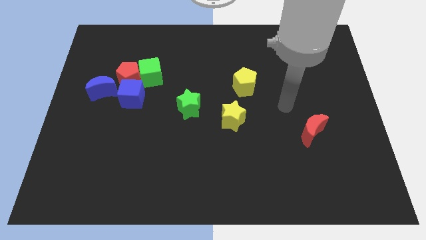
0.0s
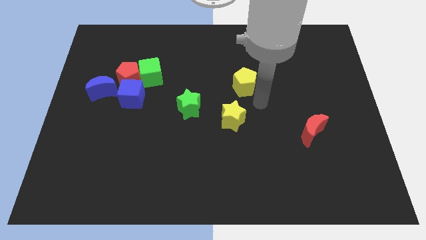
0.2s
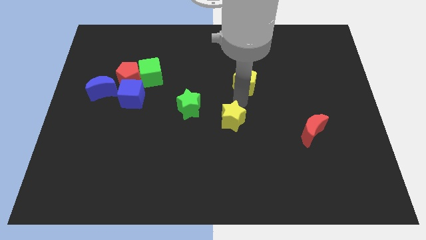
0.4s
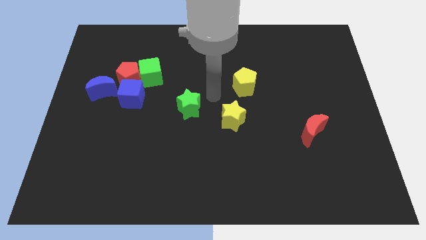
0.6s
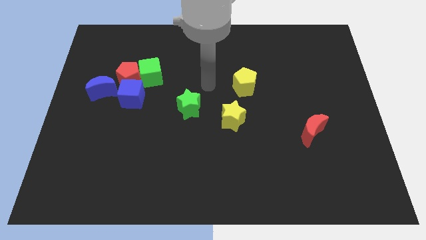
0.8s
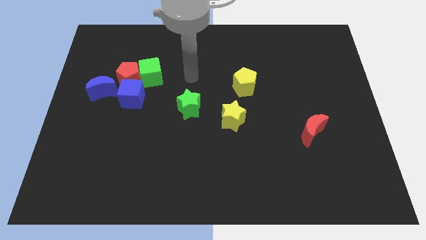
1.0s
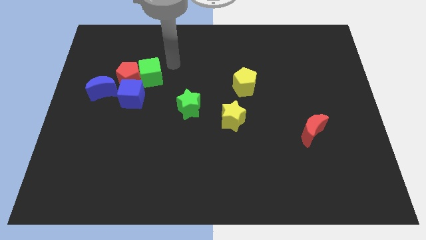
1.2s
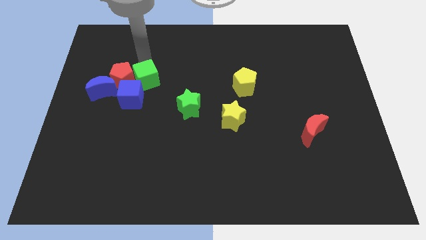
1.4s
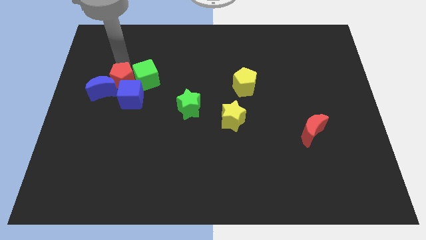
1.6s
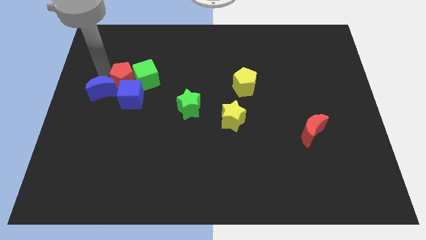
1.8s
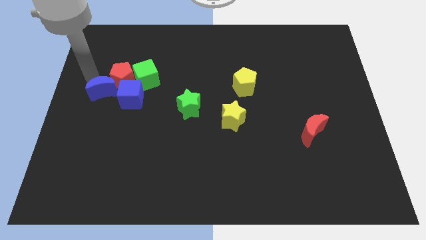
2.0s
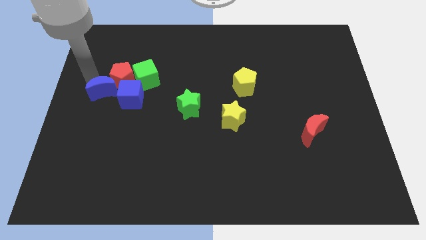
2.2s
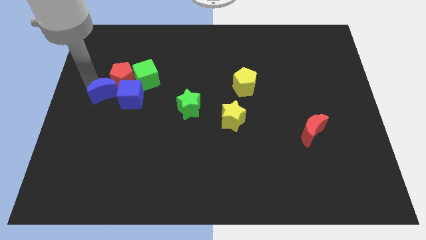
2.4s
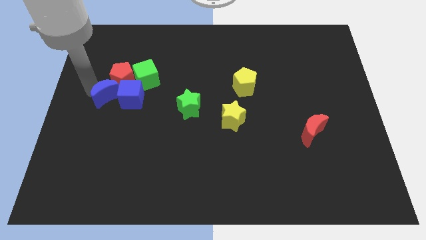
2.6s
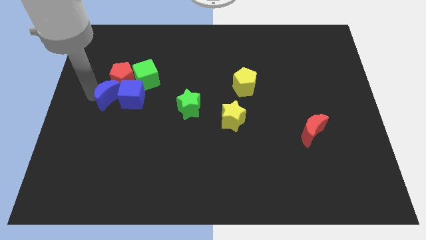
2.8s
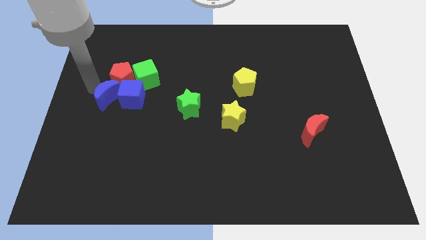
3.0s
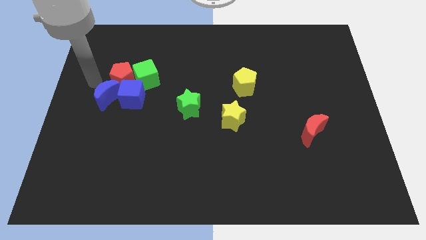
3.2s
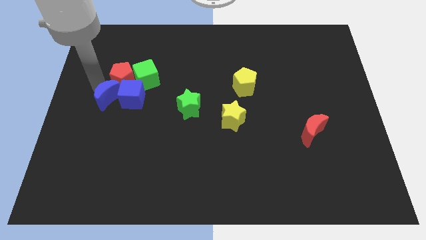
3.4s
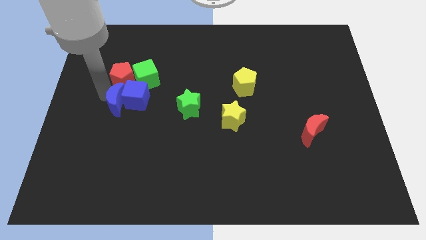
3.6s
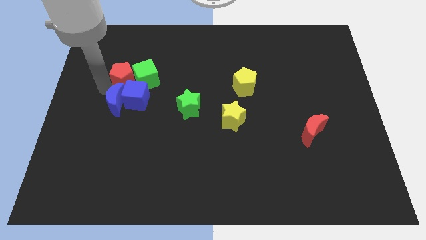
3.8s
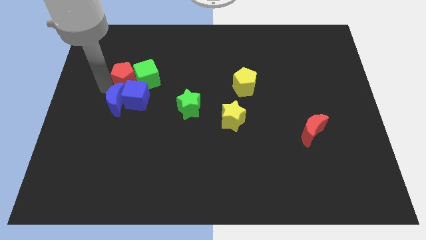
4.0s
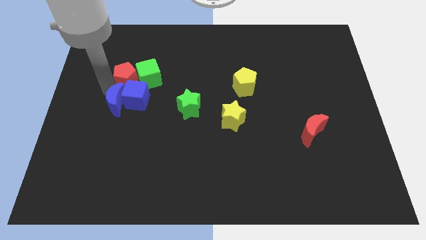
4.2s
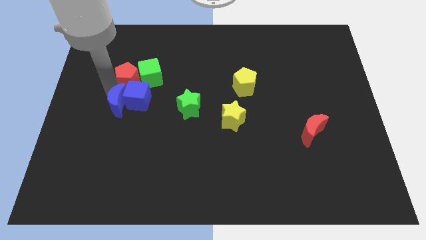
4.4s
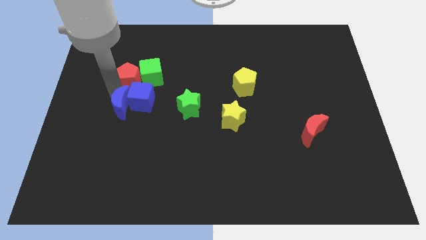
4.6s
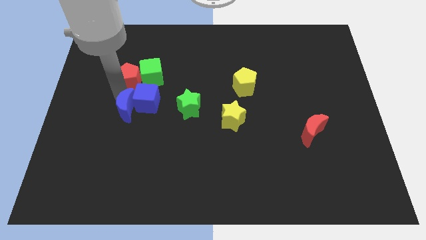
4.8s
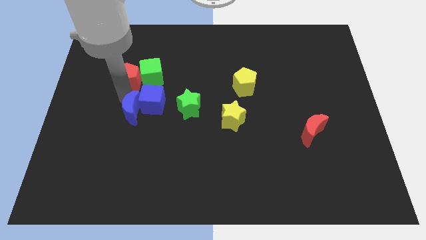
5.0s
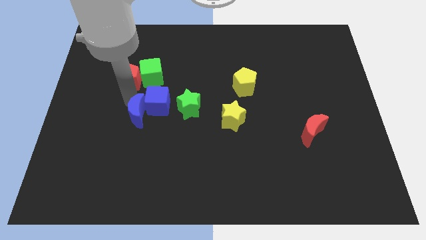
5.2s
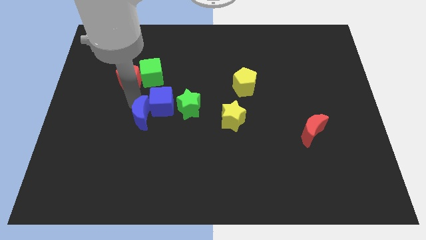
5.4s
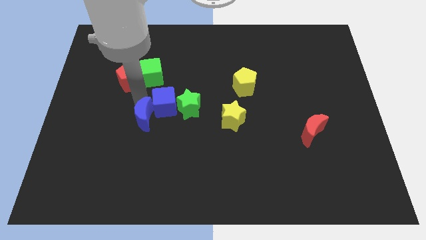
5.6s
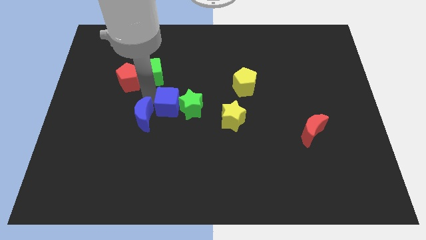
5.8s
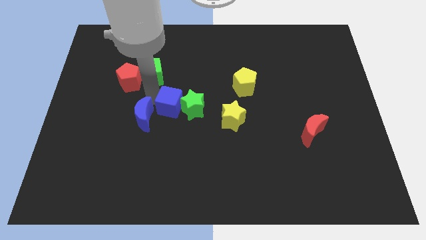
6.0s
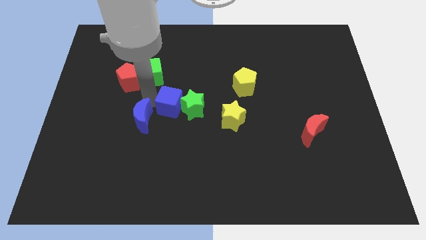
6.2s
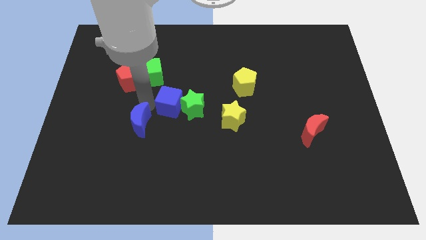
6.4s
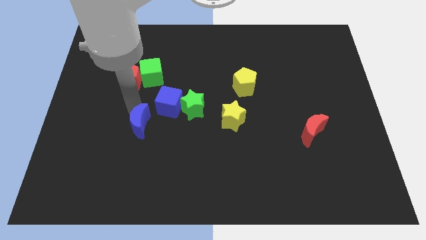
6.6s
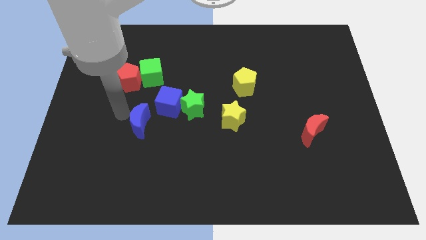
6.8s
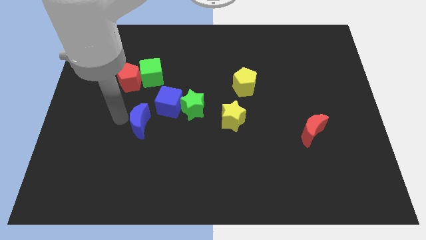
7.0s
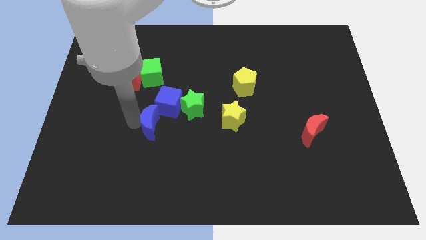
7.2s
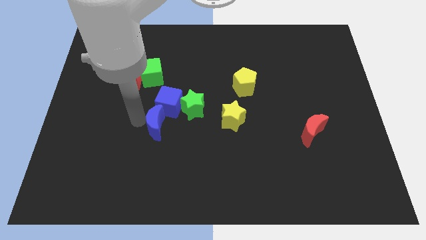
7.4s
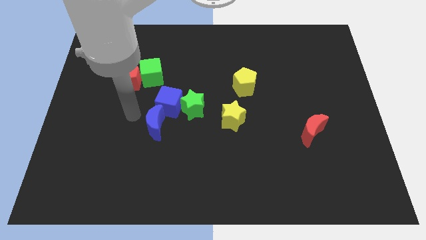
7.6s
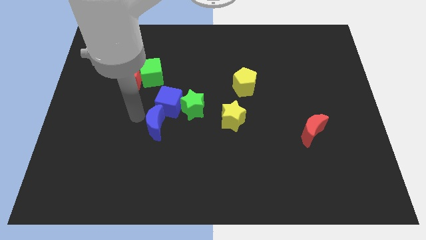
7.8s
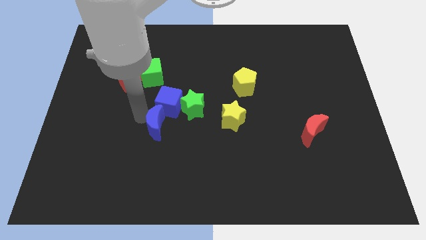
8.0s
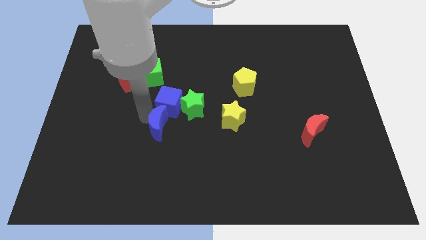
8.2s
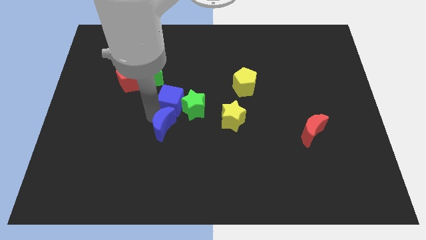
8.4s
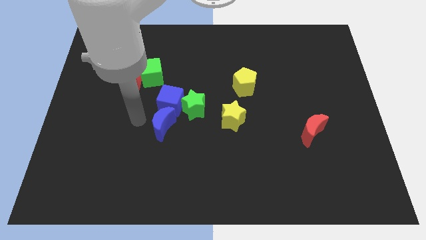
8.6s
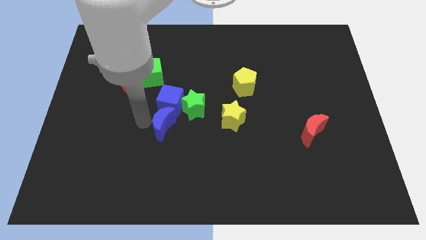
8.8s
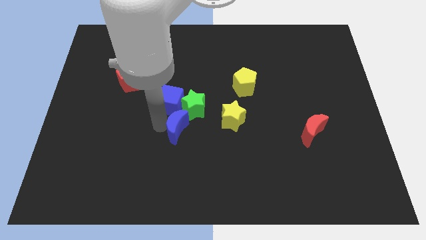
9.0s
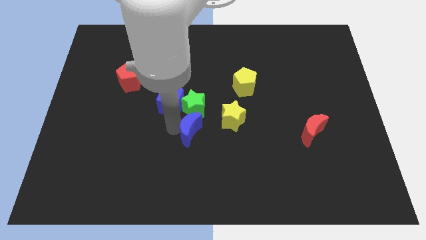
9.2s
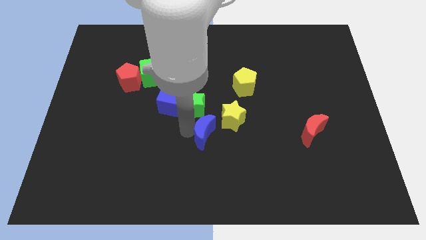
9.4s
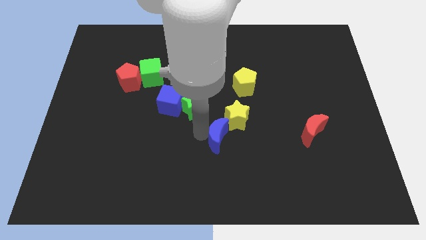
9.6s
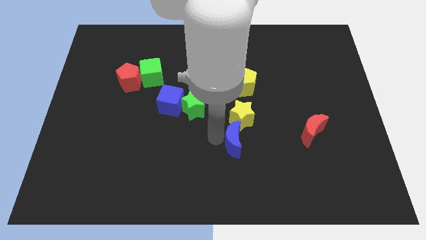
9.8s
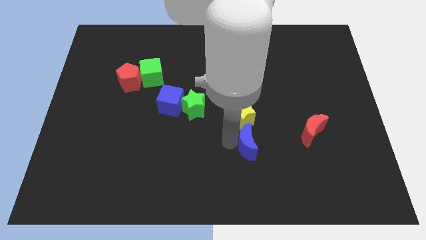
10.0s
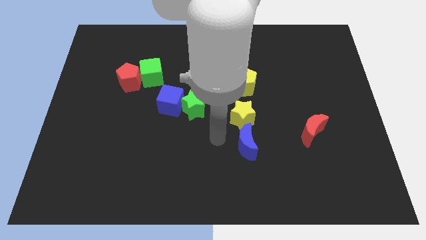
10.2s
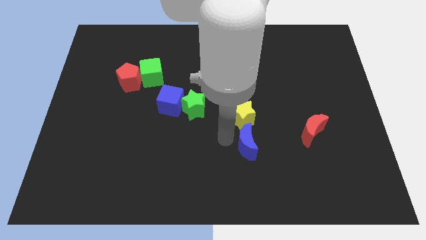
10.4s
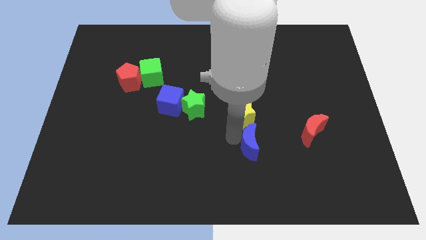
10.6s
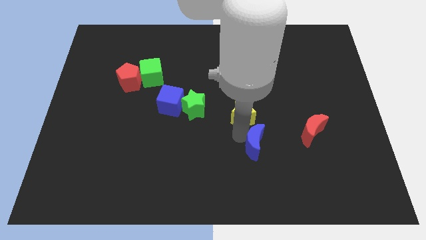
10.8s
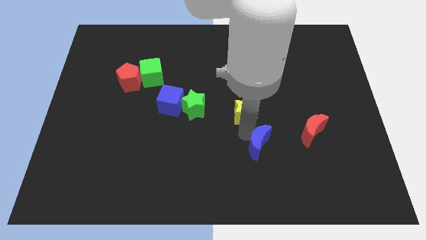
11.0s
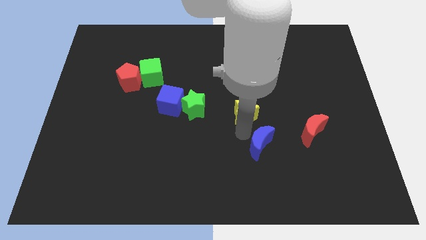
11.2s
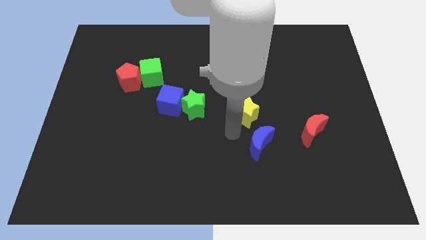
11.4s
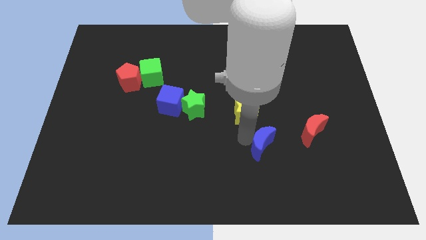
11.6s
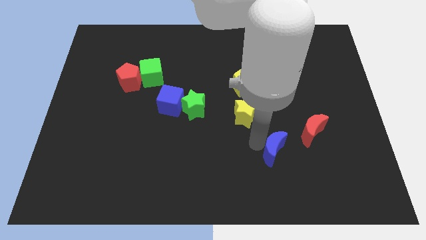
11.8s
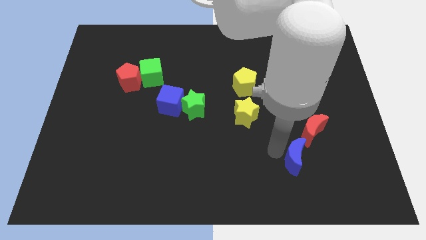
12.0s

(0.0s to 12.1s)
move the blue moon to the bottom of the red moon

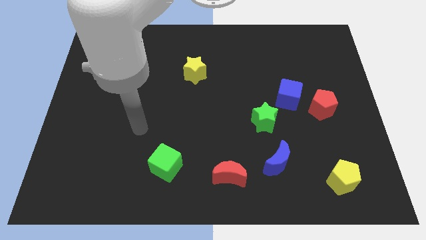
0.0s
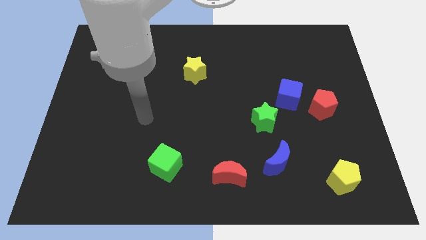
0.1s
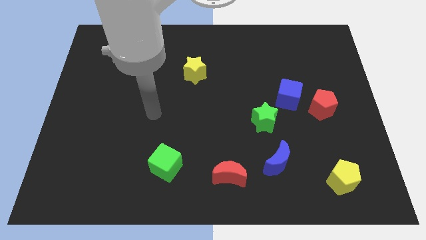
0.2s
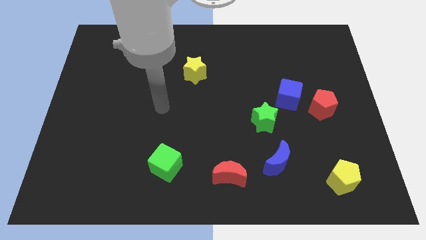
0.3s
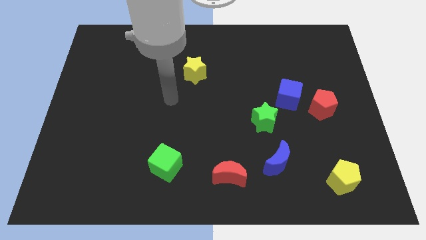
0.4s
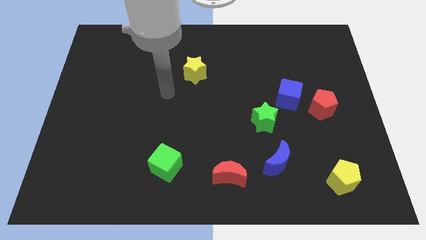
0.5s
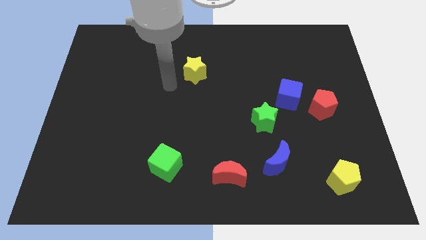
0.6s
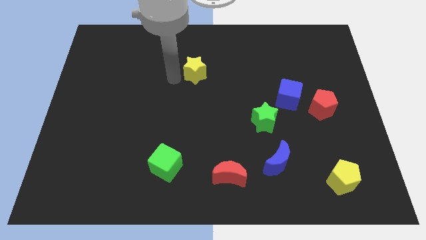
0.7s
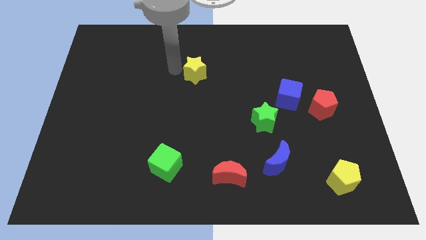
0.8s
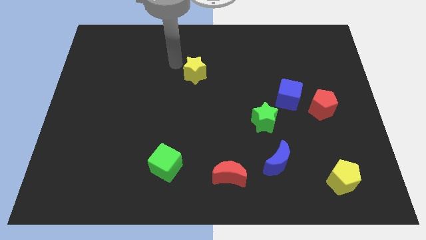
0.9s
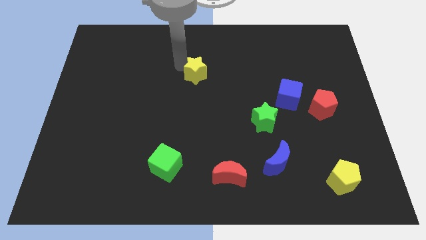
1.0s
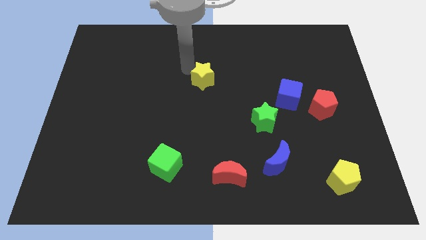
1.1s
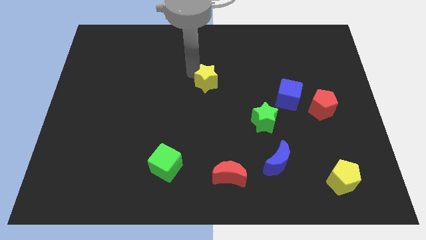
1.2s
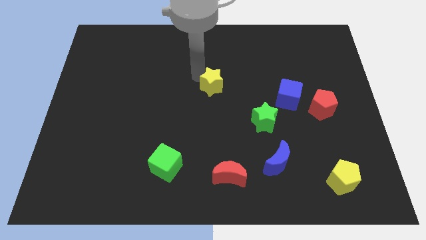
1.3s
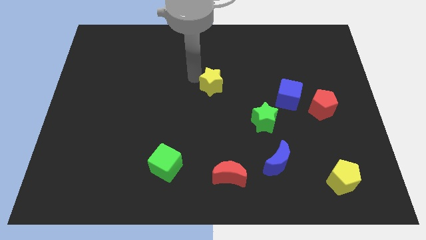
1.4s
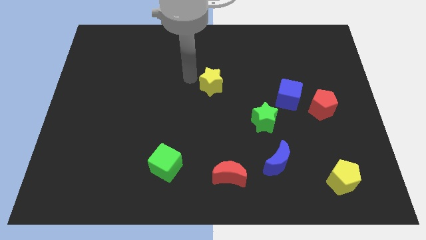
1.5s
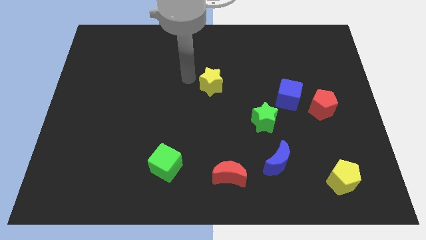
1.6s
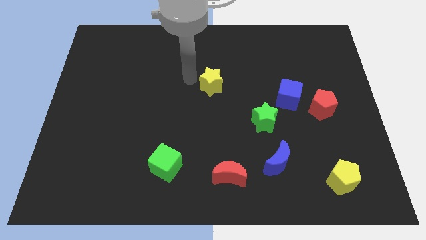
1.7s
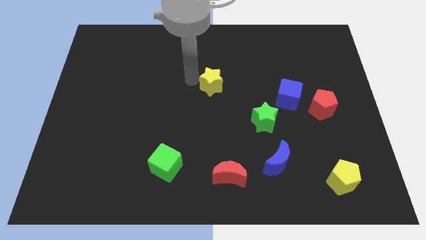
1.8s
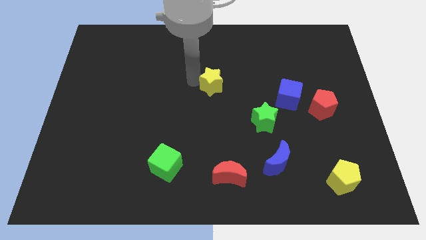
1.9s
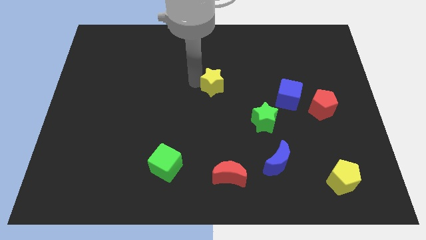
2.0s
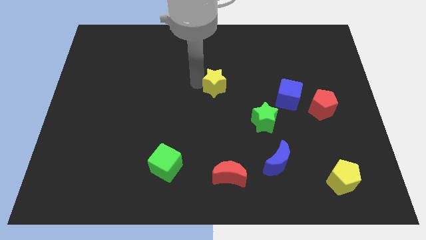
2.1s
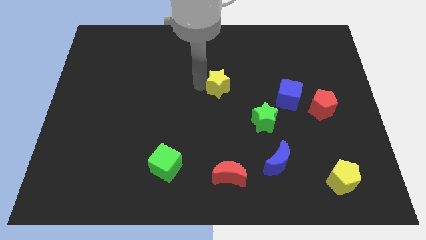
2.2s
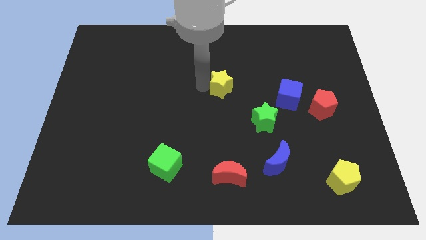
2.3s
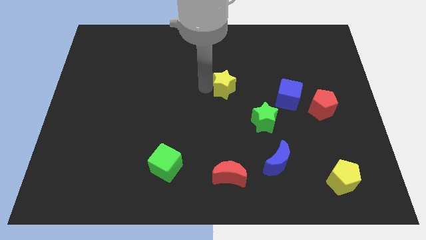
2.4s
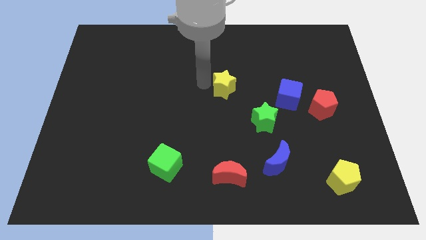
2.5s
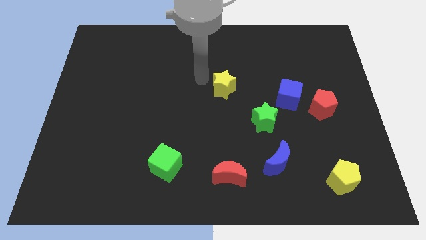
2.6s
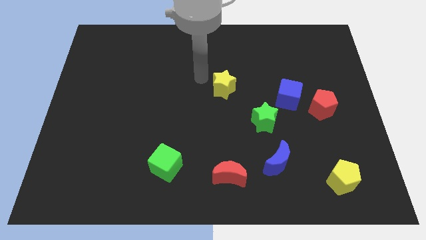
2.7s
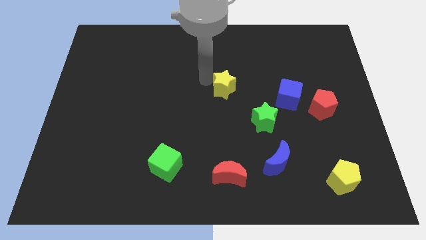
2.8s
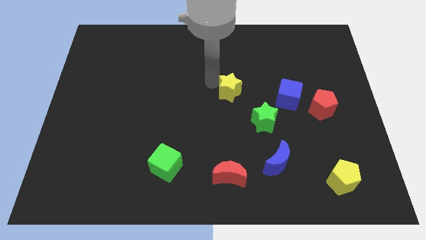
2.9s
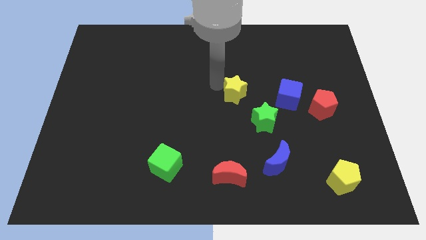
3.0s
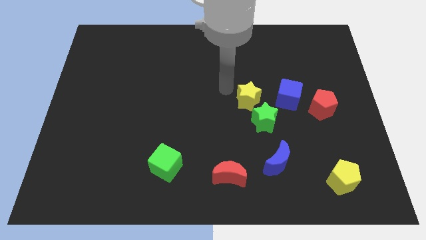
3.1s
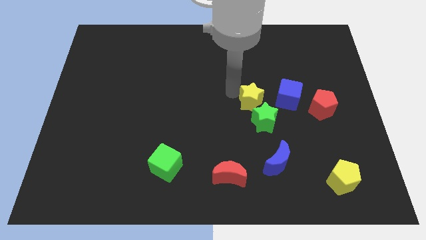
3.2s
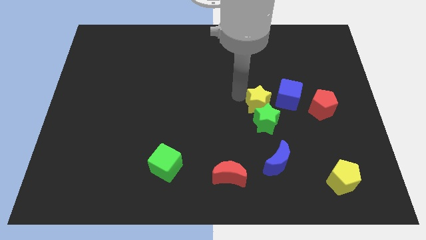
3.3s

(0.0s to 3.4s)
slide the yellow star left of the red pentagon
